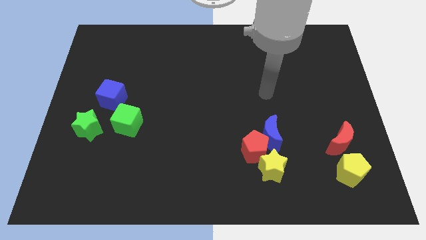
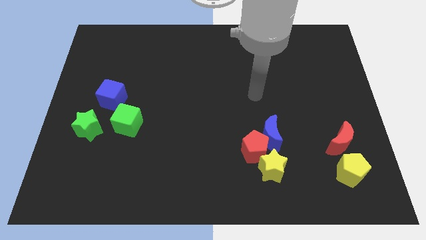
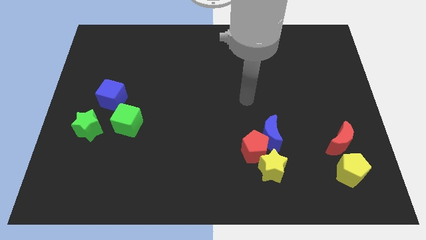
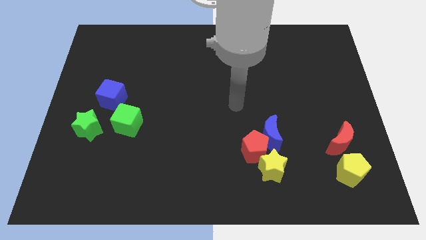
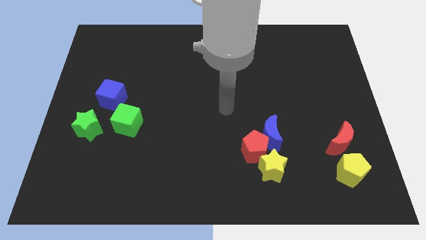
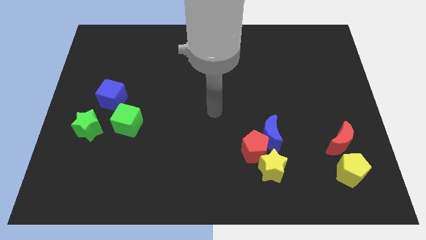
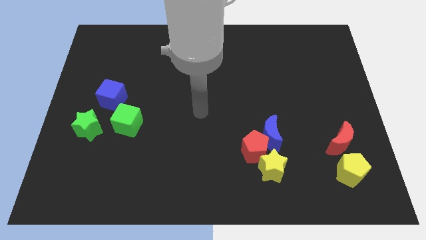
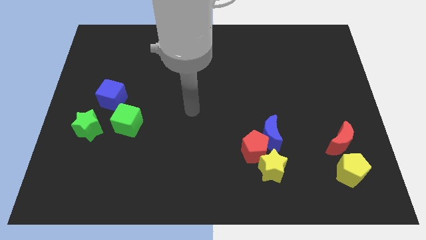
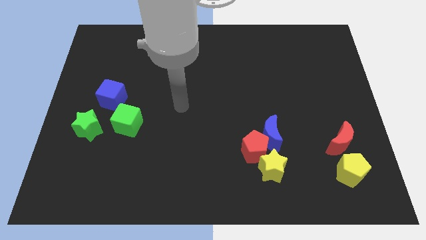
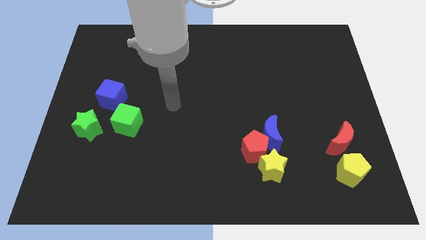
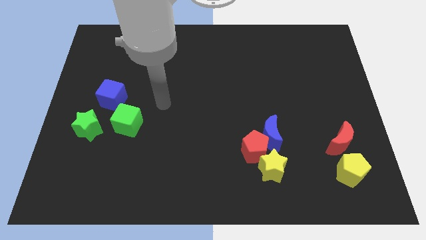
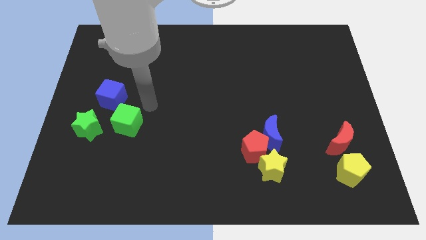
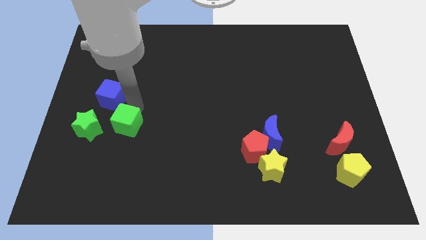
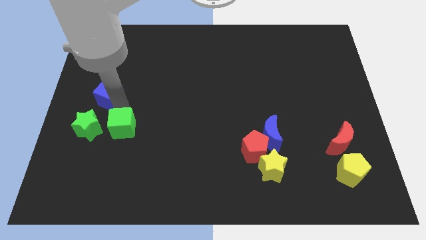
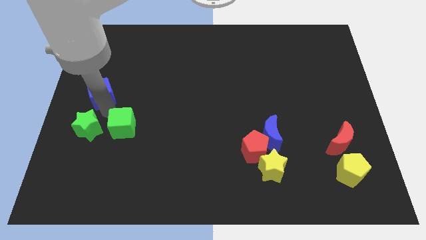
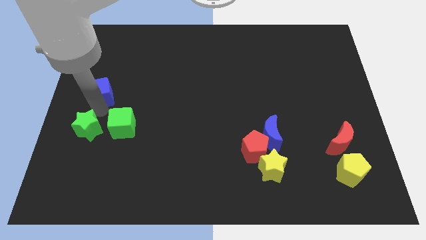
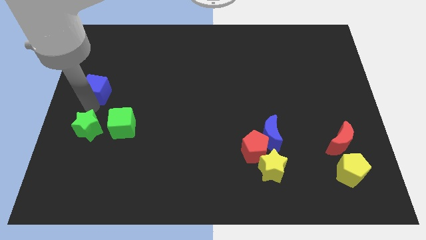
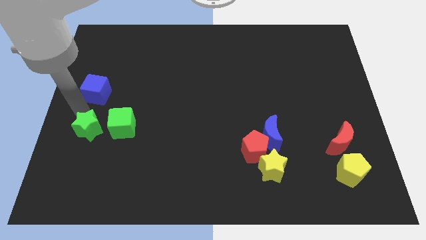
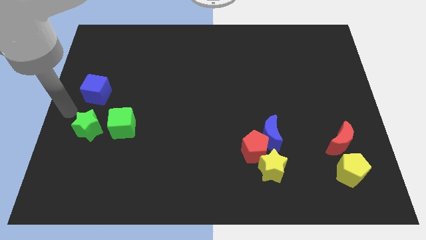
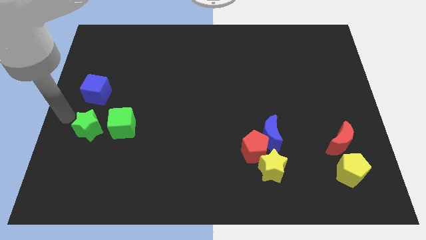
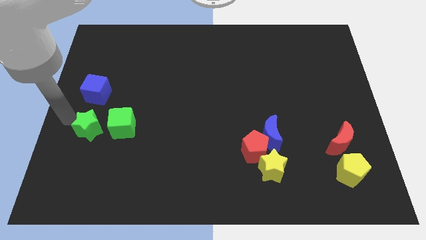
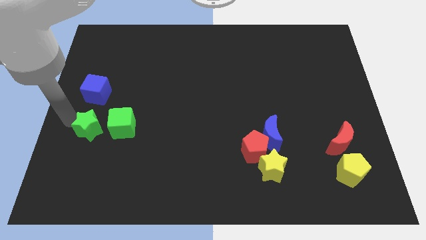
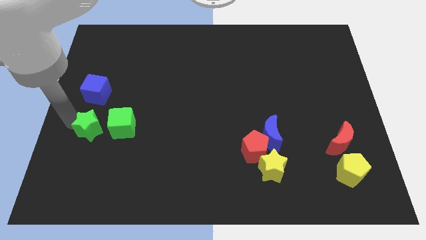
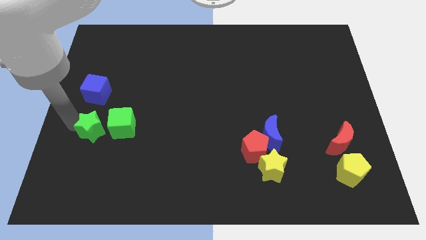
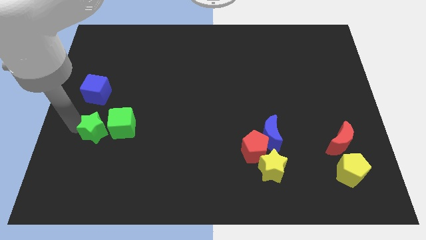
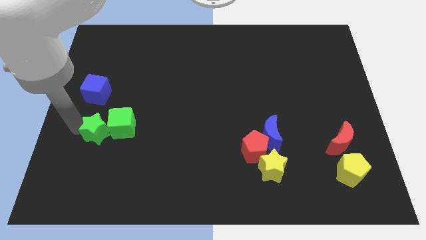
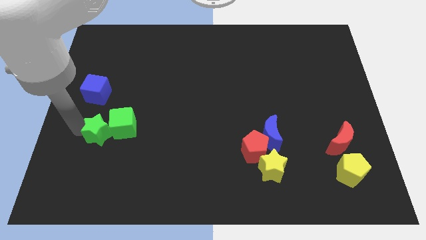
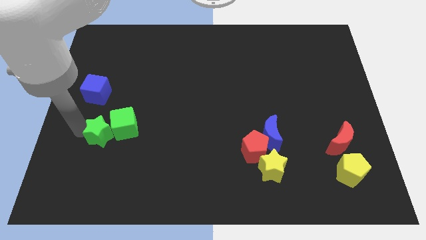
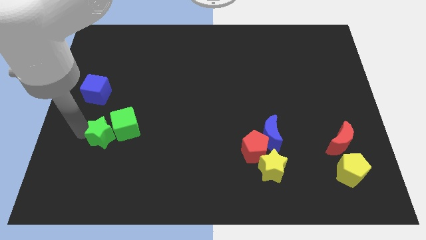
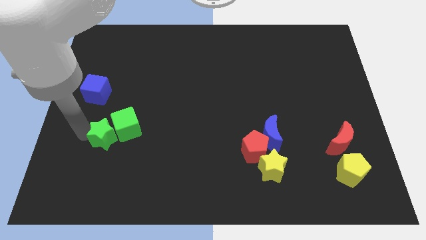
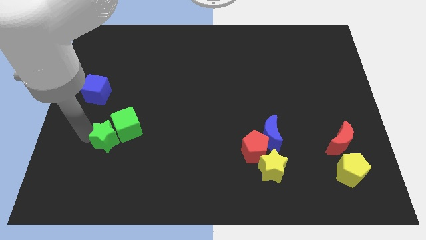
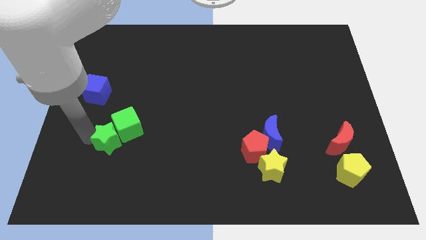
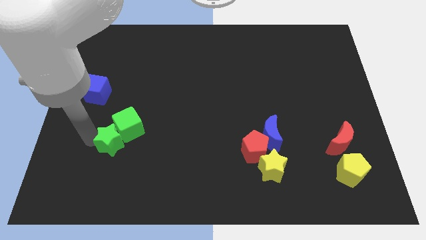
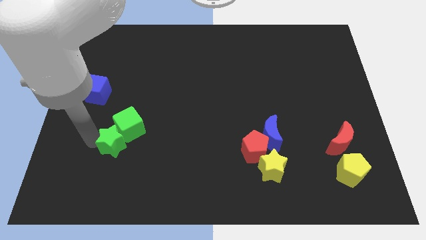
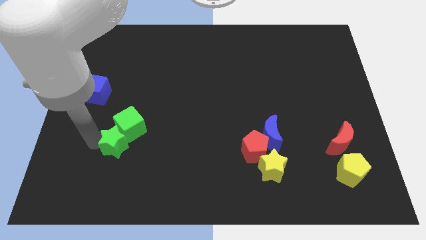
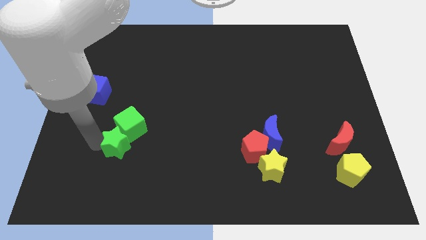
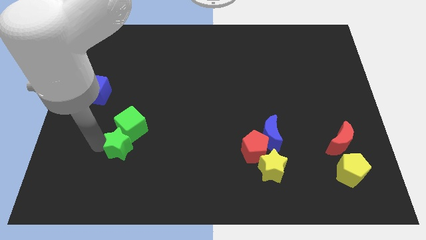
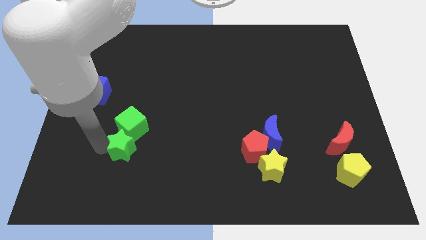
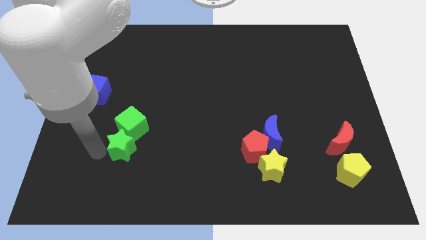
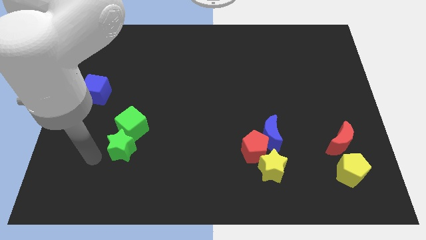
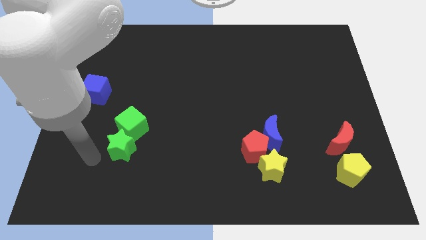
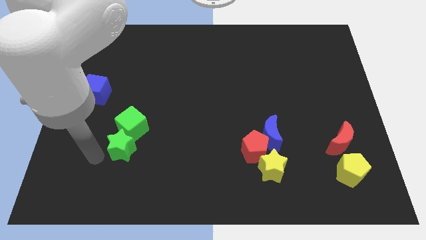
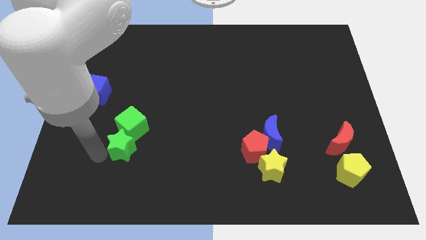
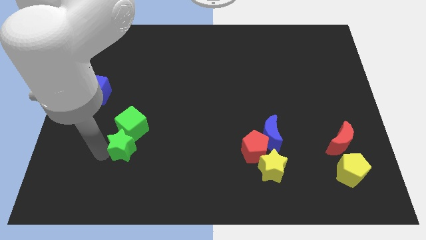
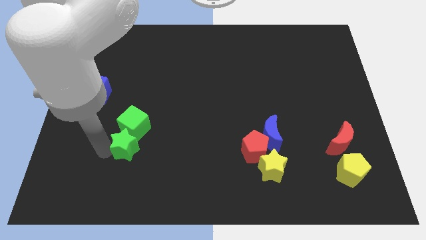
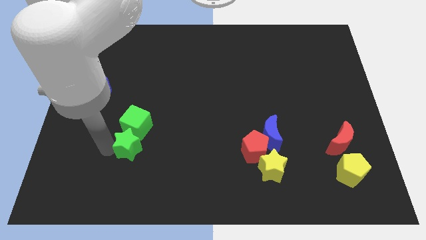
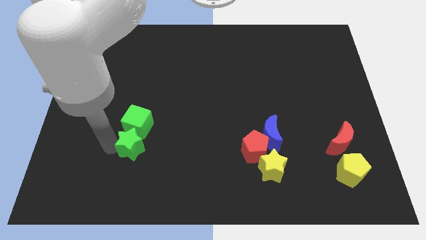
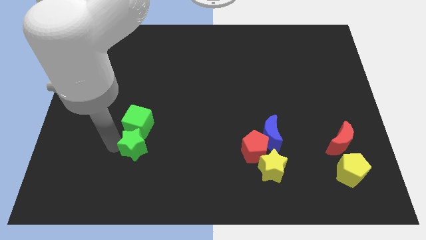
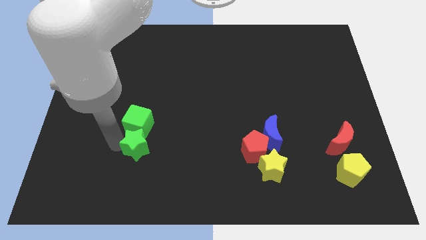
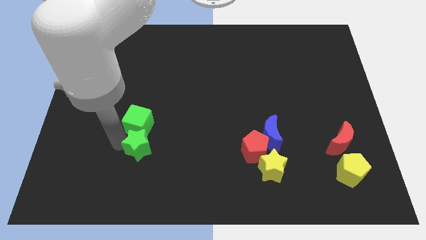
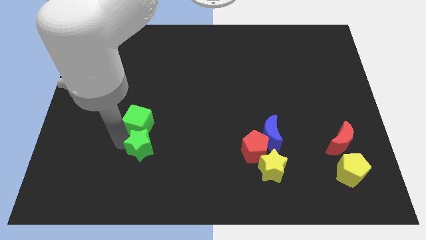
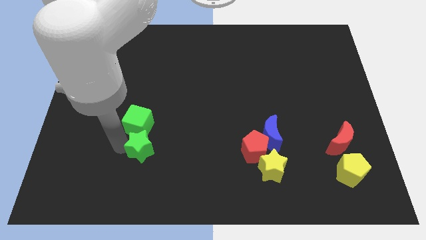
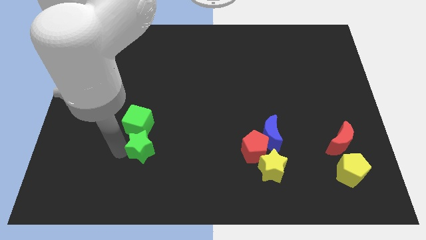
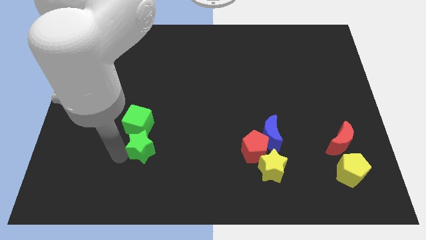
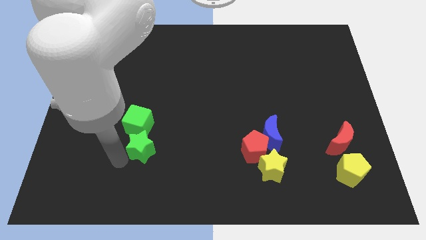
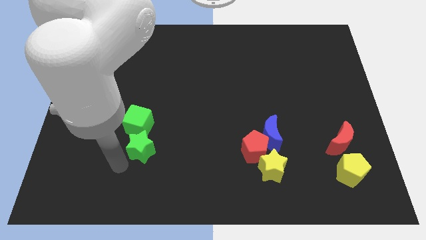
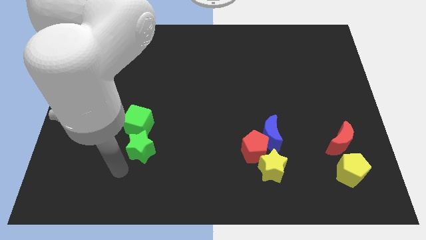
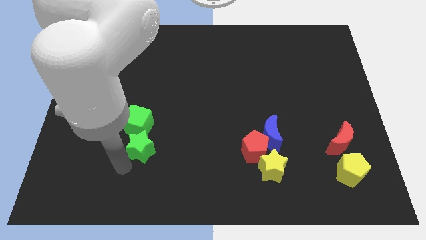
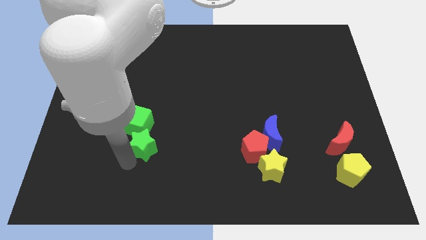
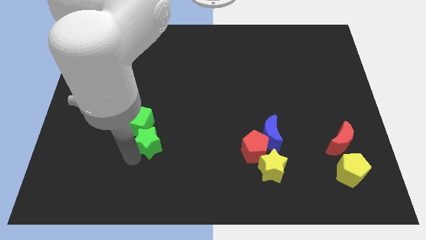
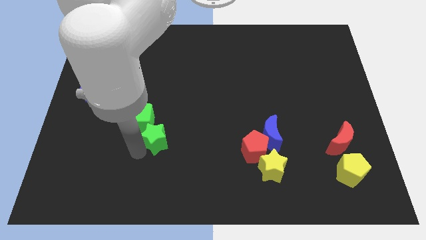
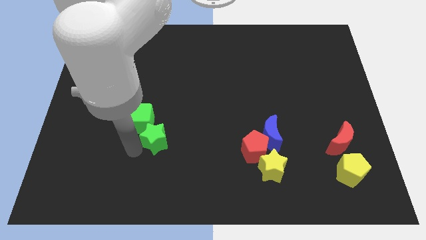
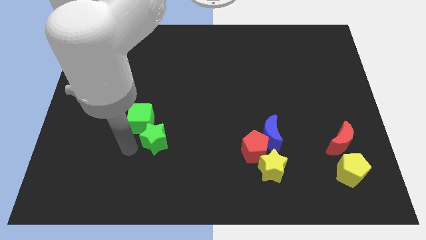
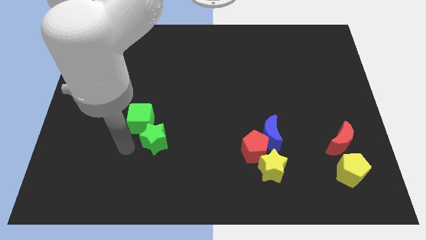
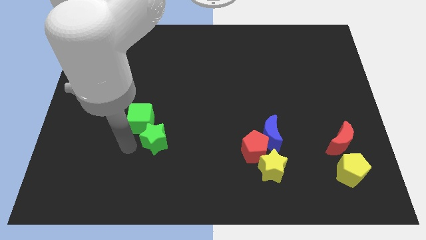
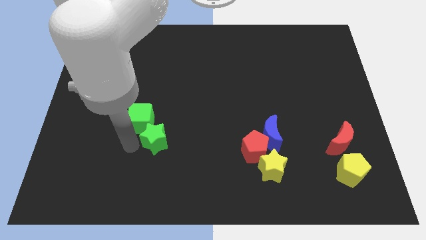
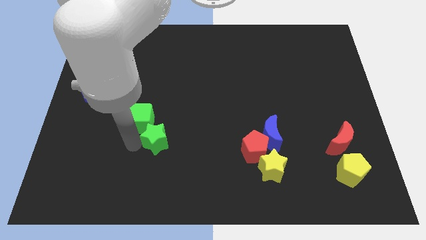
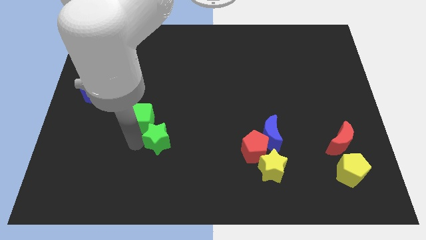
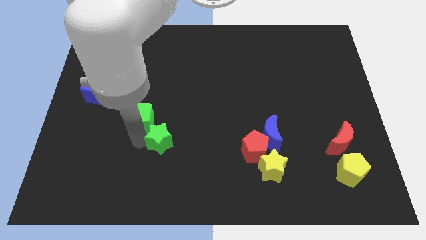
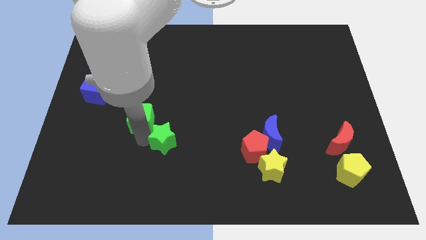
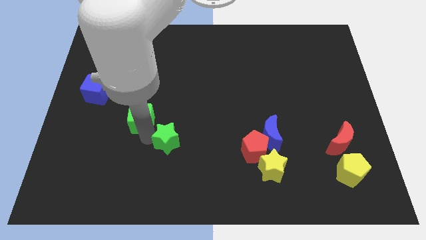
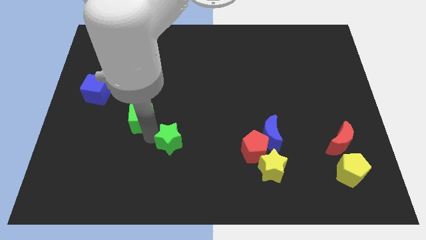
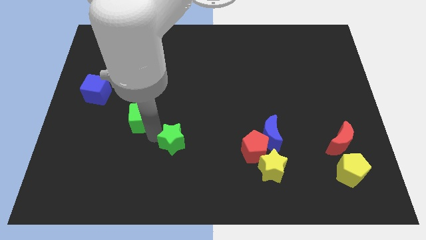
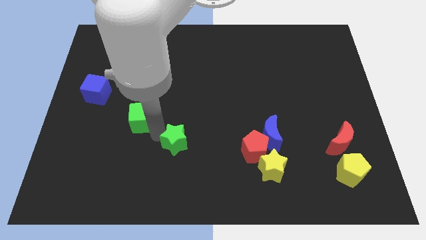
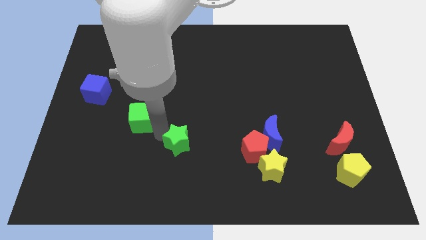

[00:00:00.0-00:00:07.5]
move the green star to the right

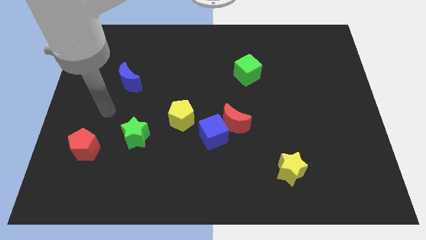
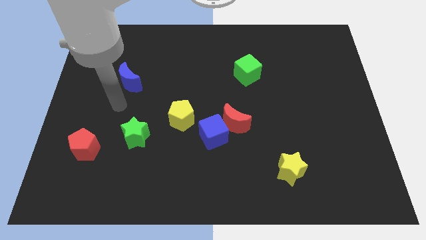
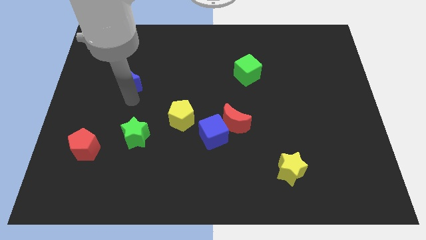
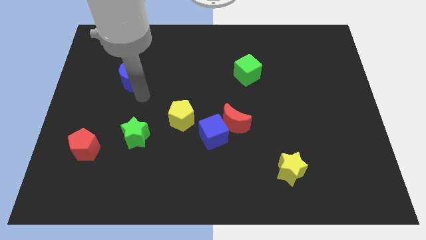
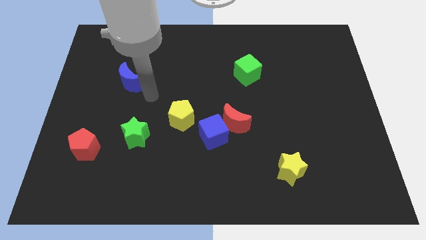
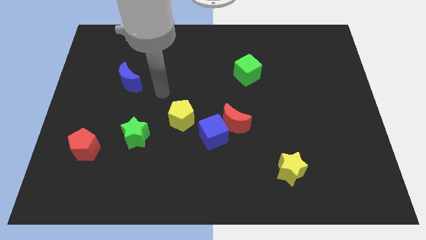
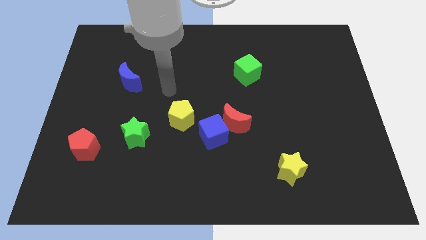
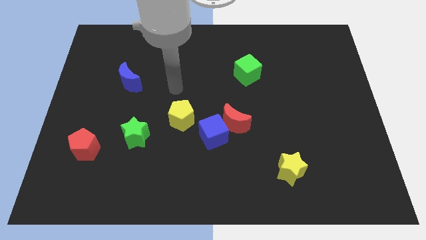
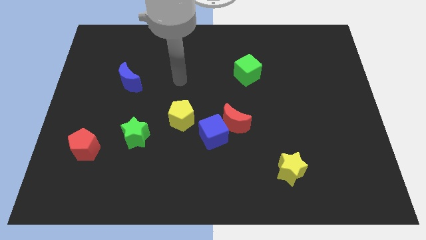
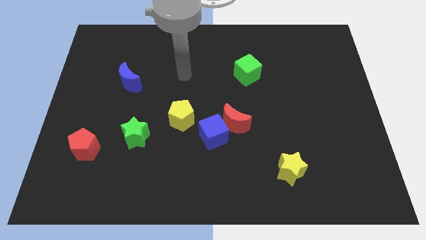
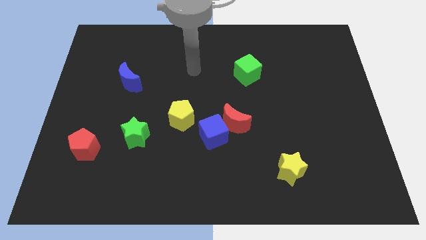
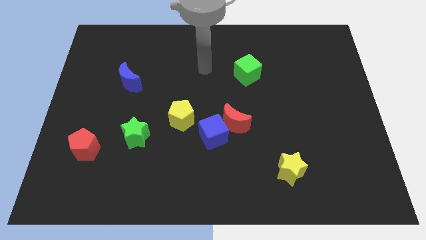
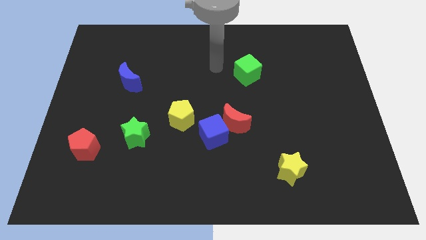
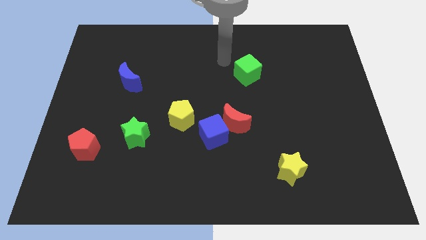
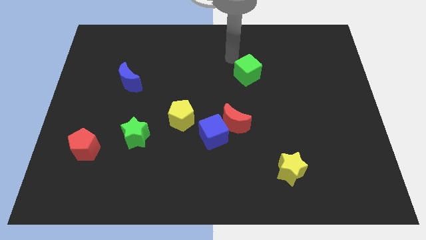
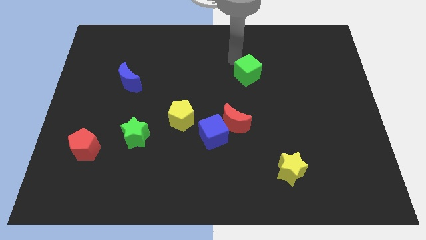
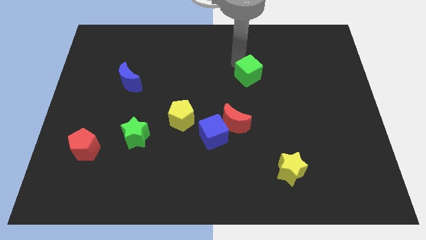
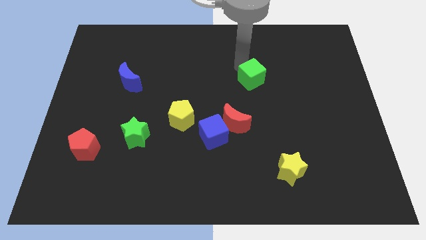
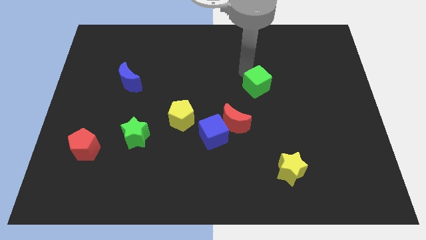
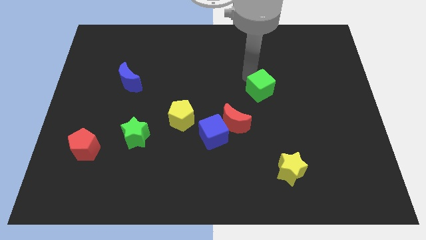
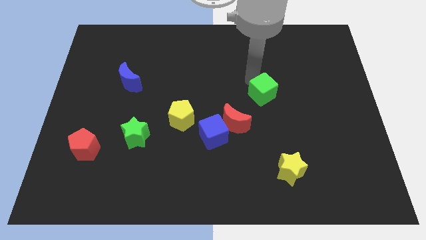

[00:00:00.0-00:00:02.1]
push the green cube a little downwards and to the right
